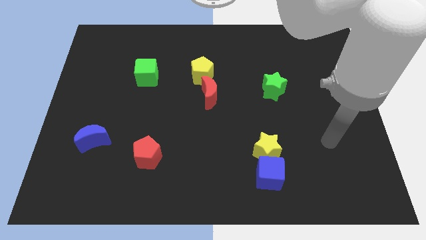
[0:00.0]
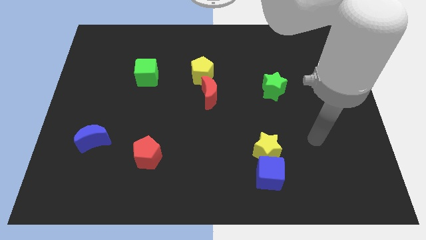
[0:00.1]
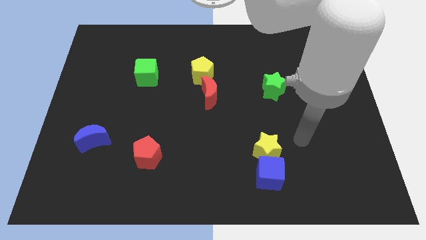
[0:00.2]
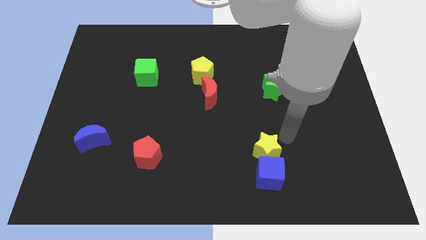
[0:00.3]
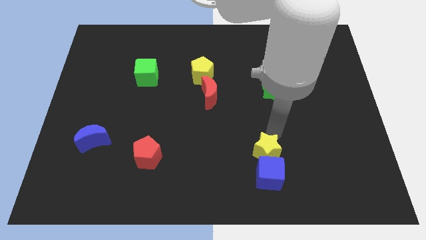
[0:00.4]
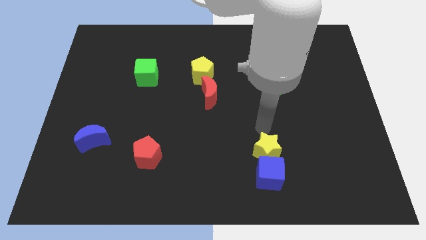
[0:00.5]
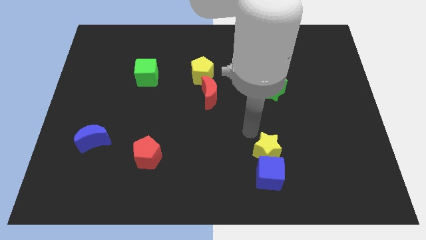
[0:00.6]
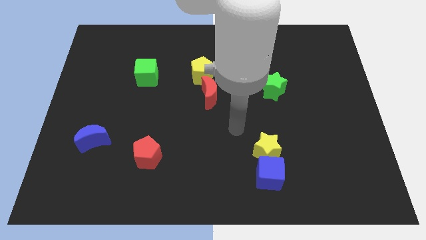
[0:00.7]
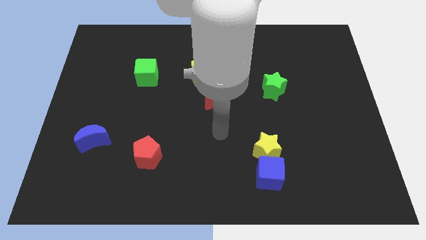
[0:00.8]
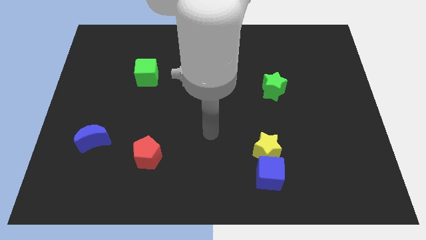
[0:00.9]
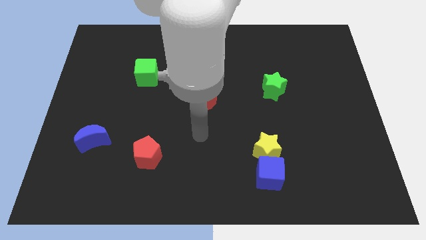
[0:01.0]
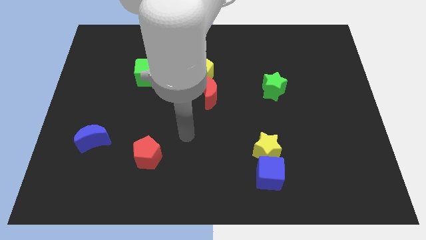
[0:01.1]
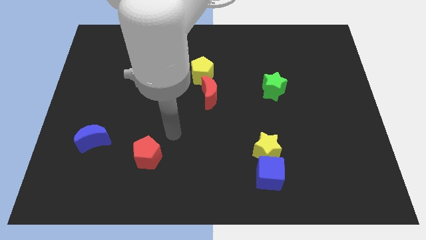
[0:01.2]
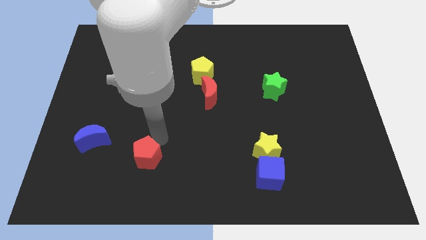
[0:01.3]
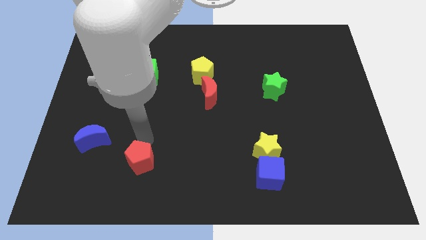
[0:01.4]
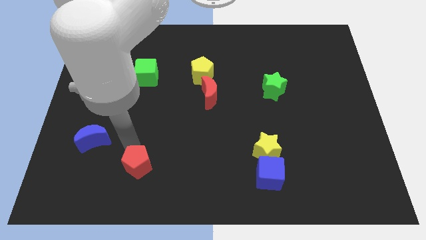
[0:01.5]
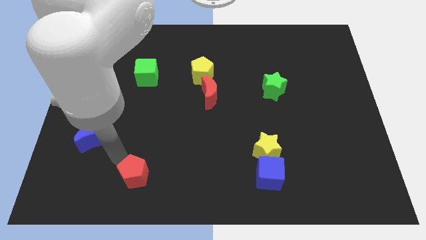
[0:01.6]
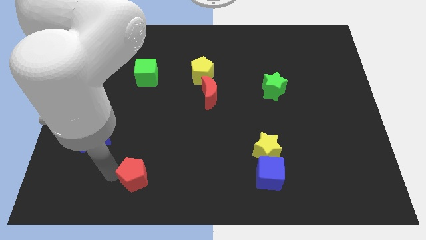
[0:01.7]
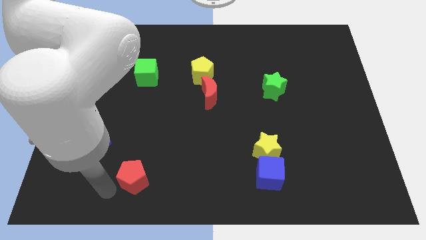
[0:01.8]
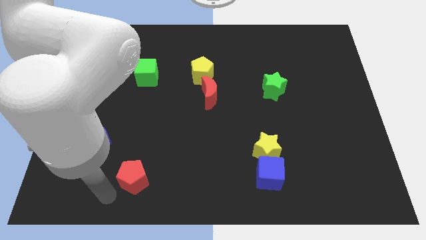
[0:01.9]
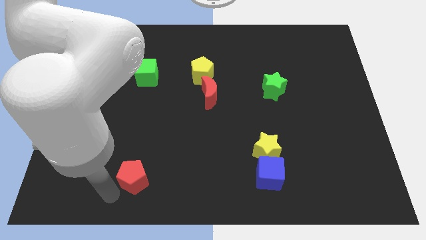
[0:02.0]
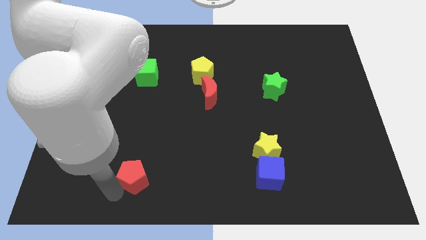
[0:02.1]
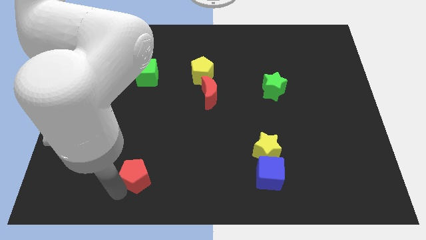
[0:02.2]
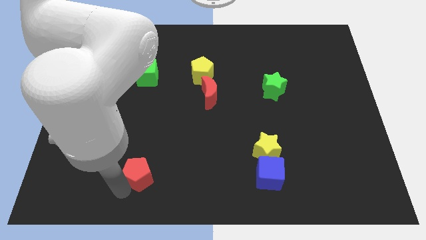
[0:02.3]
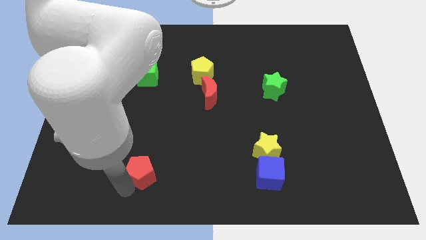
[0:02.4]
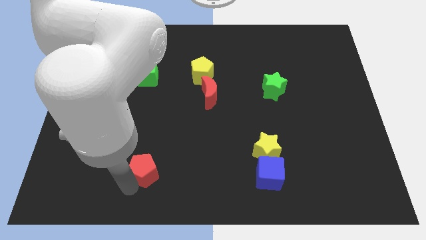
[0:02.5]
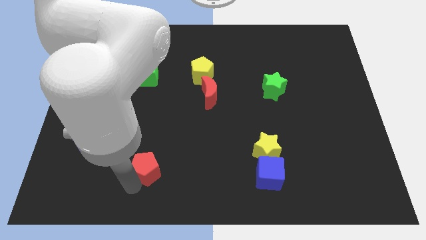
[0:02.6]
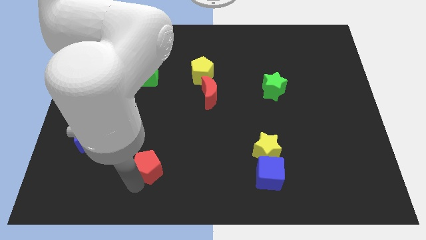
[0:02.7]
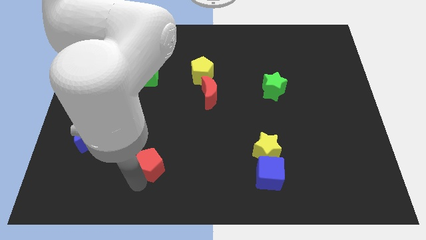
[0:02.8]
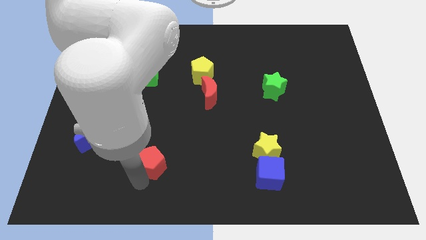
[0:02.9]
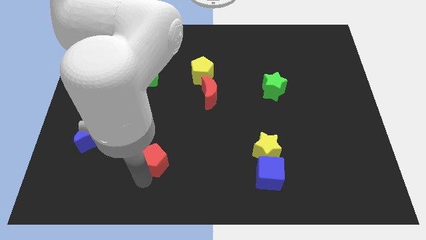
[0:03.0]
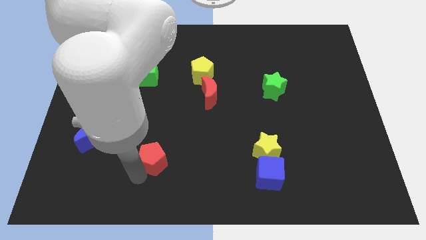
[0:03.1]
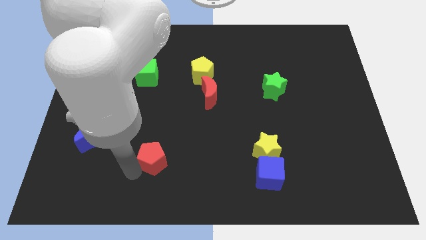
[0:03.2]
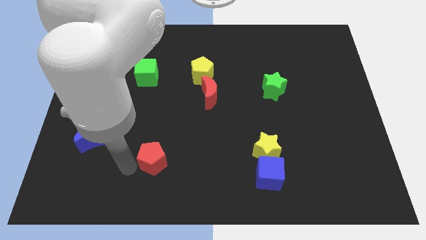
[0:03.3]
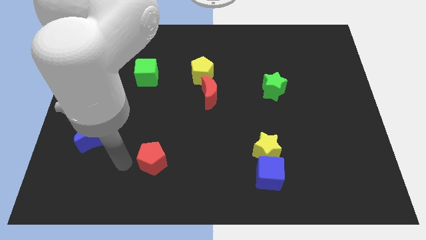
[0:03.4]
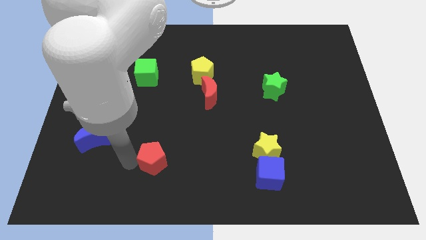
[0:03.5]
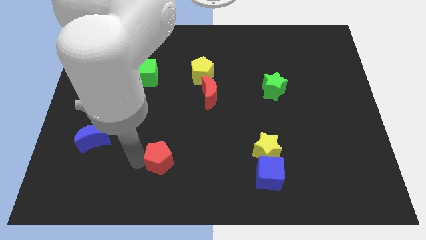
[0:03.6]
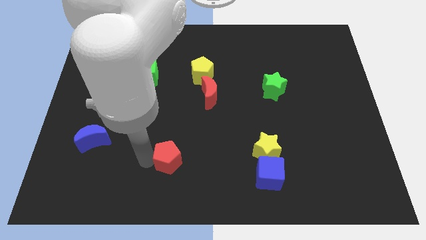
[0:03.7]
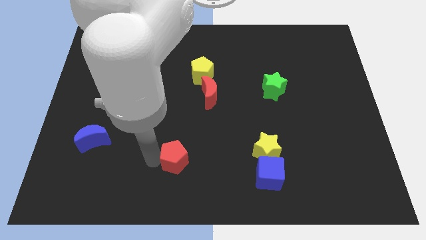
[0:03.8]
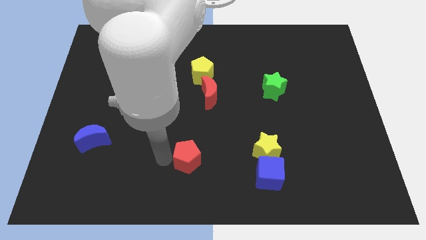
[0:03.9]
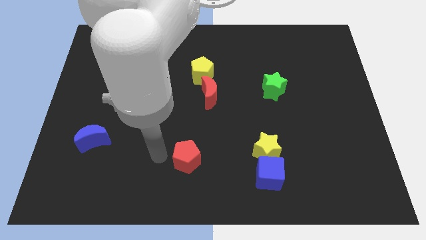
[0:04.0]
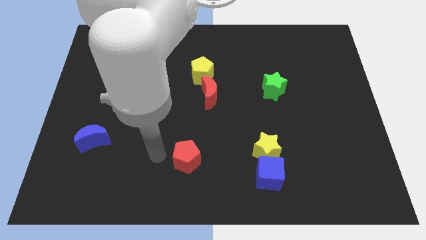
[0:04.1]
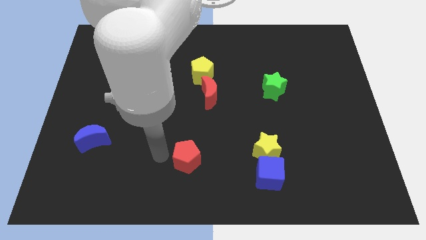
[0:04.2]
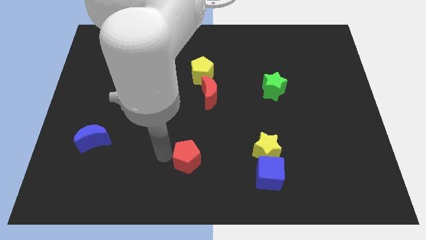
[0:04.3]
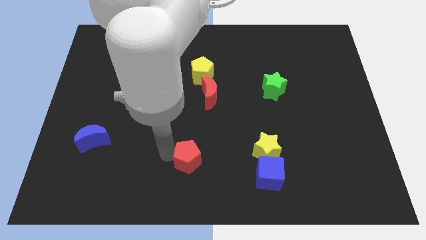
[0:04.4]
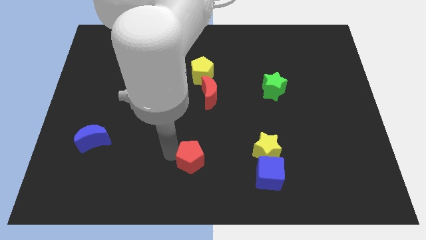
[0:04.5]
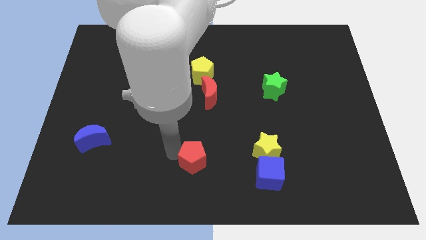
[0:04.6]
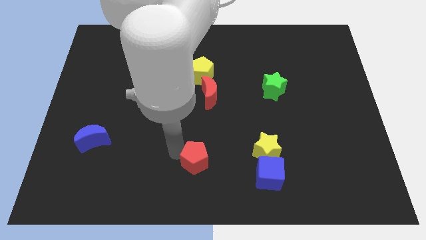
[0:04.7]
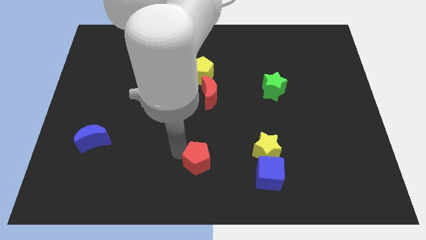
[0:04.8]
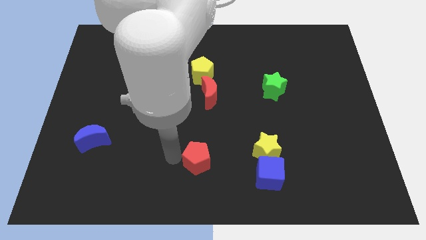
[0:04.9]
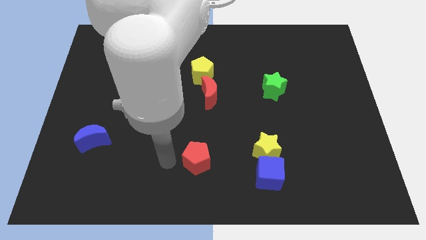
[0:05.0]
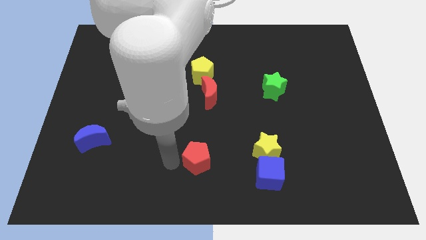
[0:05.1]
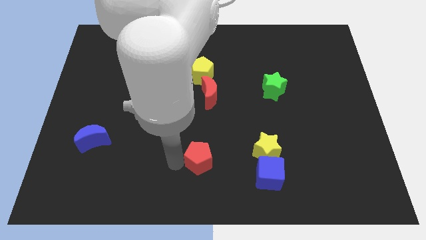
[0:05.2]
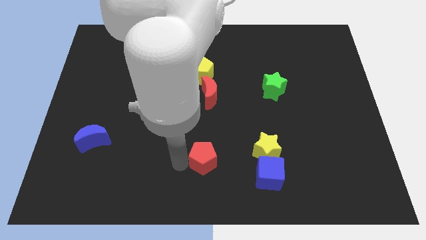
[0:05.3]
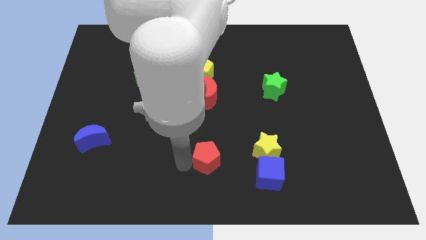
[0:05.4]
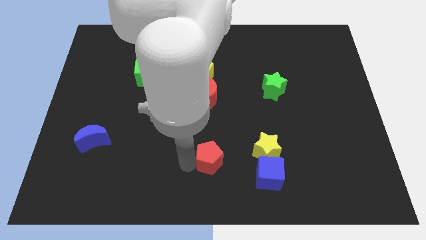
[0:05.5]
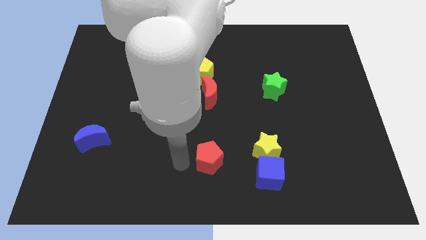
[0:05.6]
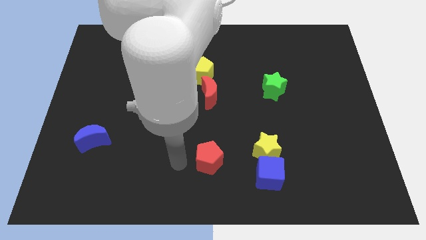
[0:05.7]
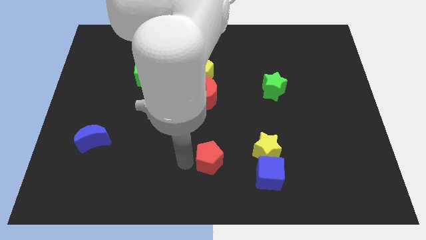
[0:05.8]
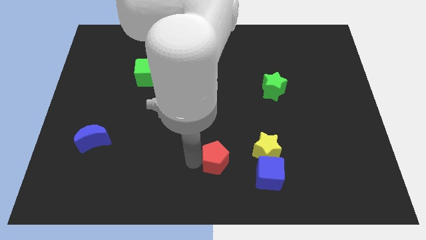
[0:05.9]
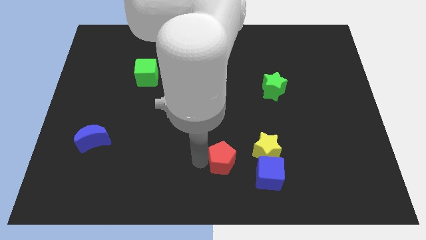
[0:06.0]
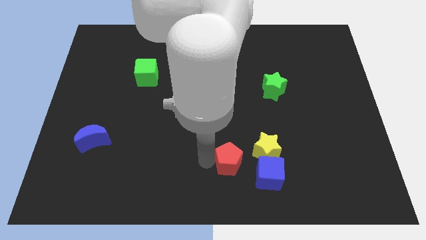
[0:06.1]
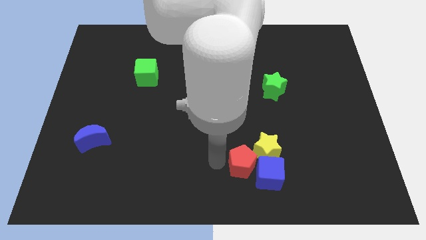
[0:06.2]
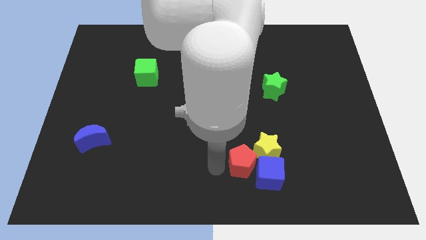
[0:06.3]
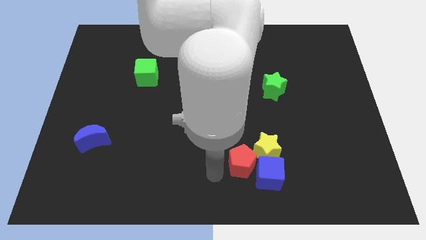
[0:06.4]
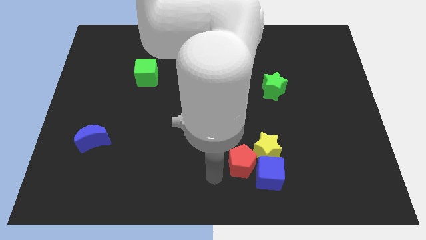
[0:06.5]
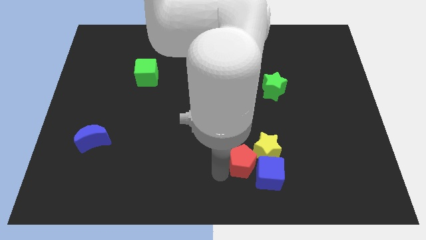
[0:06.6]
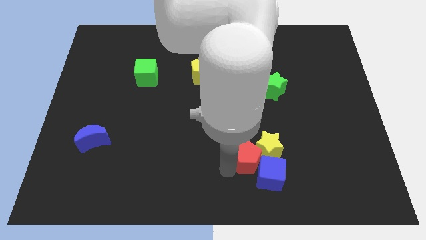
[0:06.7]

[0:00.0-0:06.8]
move the red pentagon next to the yellow star

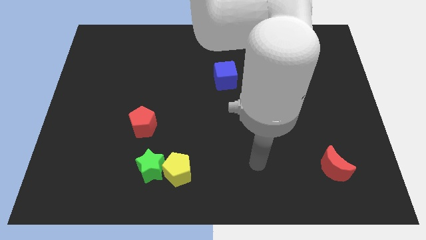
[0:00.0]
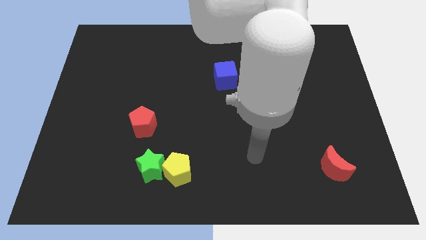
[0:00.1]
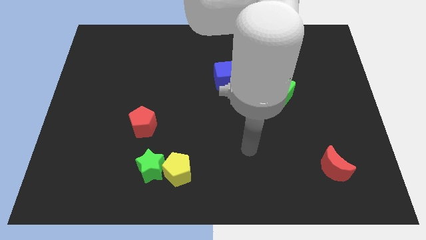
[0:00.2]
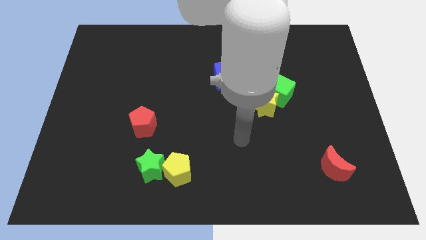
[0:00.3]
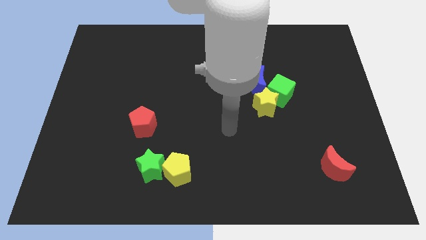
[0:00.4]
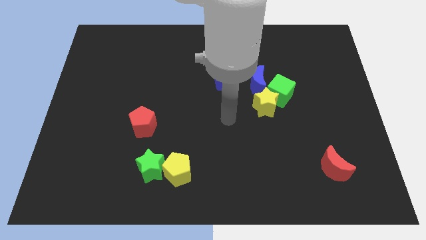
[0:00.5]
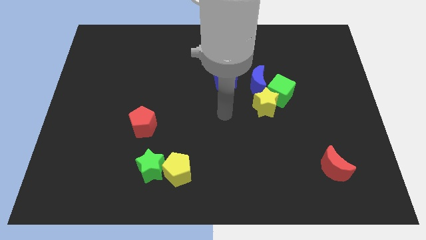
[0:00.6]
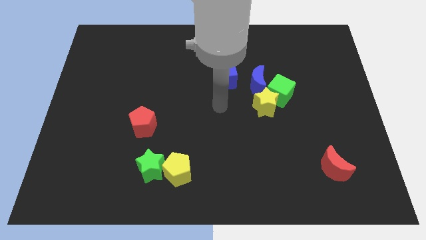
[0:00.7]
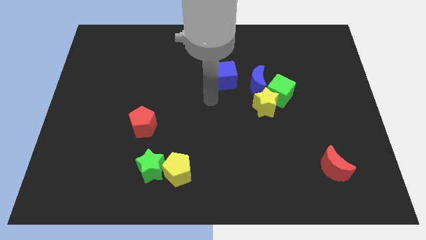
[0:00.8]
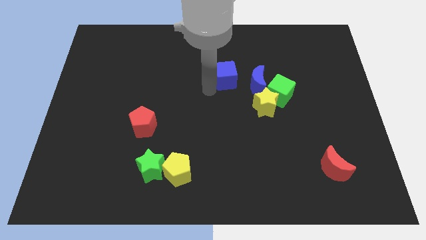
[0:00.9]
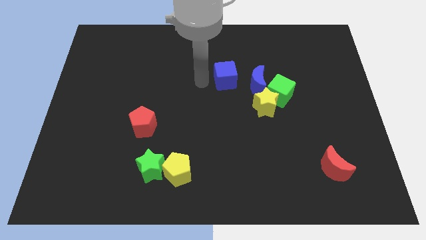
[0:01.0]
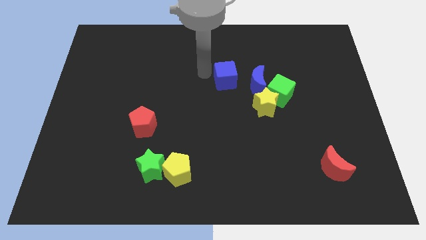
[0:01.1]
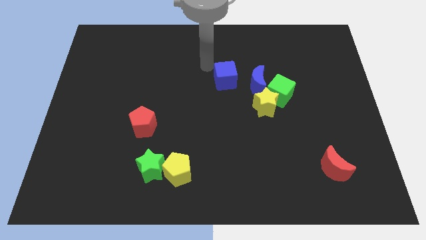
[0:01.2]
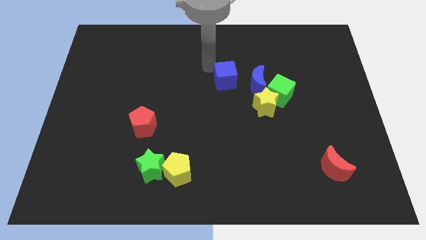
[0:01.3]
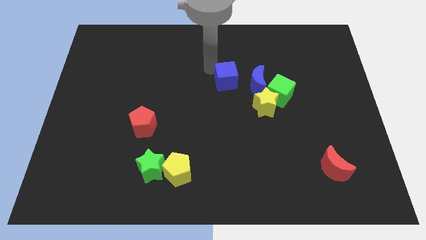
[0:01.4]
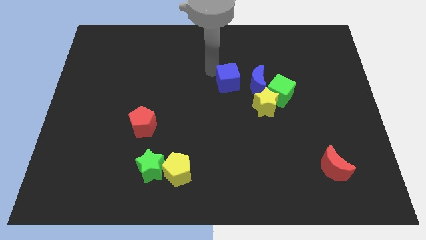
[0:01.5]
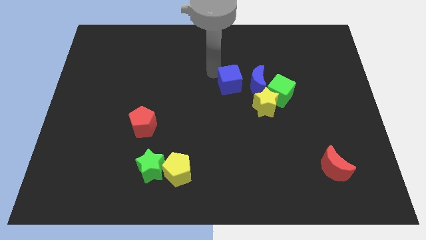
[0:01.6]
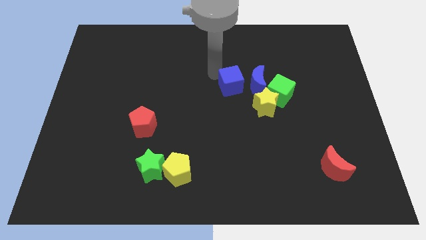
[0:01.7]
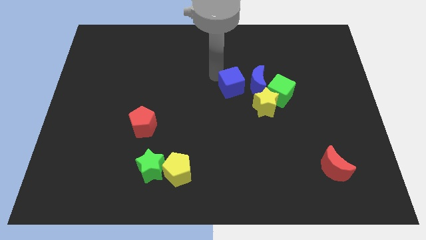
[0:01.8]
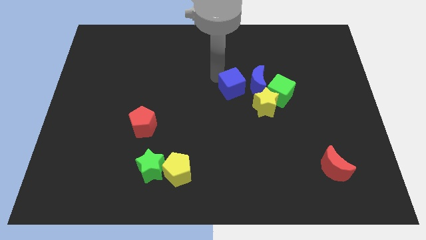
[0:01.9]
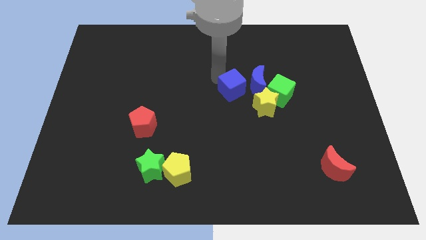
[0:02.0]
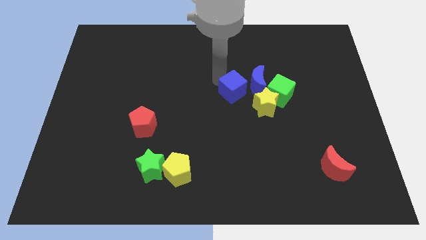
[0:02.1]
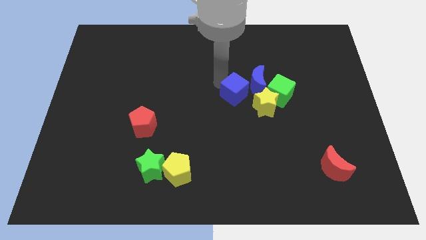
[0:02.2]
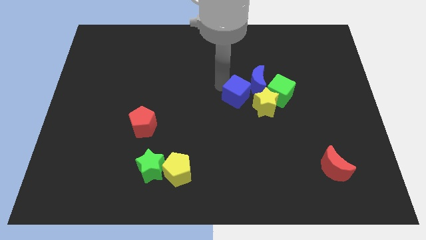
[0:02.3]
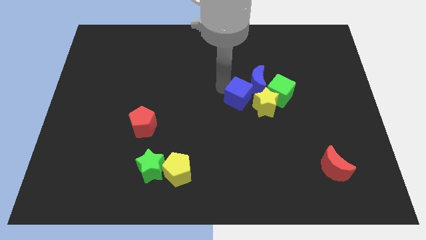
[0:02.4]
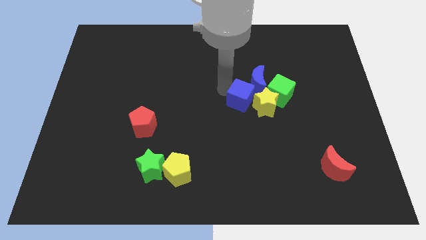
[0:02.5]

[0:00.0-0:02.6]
move the blue cube towards the yellow star
